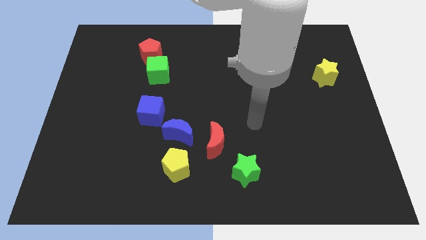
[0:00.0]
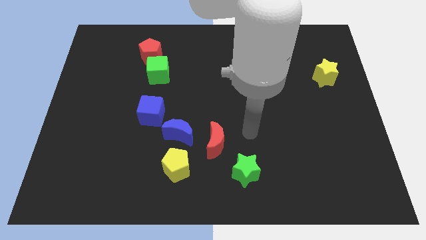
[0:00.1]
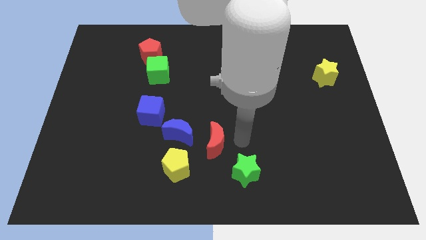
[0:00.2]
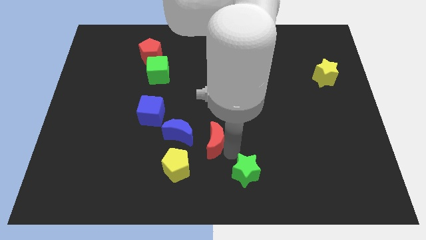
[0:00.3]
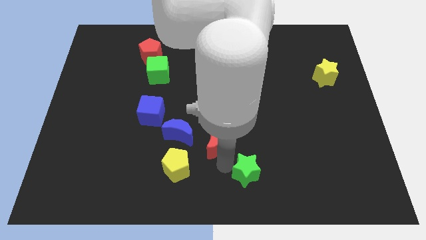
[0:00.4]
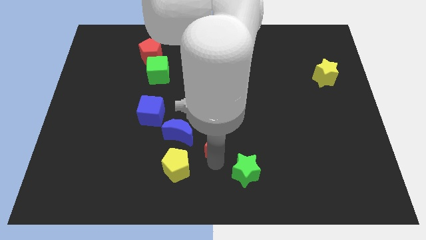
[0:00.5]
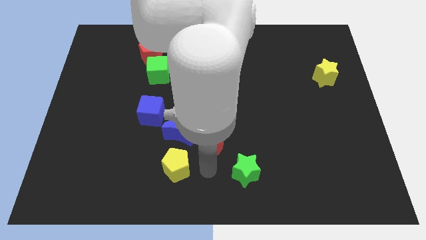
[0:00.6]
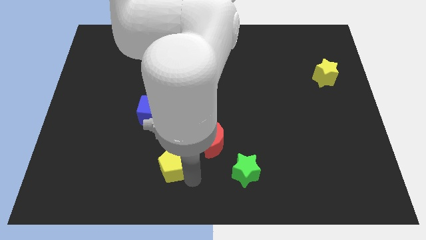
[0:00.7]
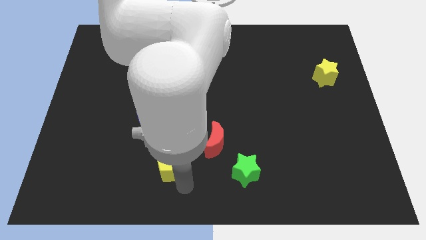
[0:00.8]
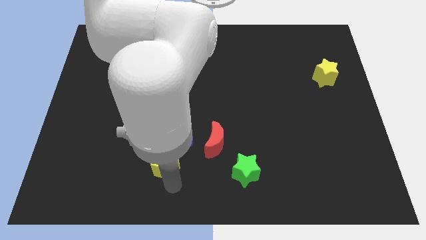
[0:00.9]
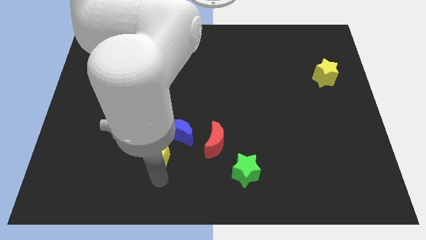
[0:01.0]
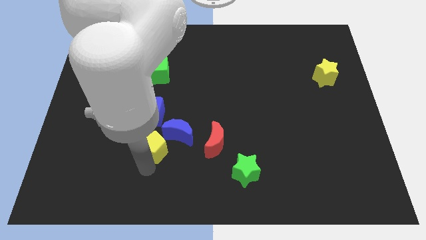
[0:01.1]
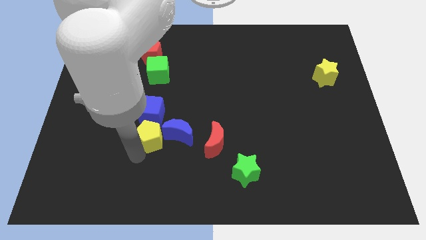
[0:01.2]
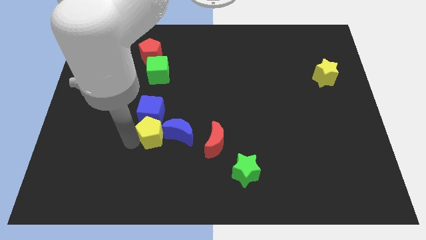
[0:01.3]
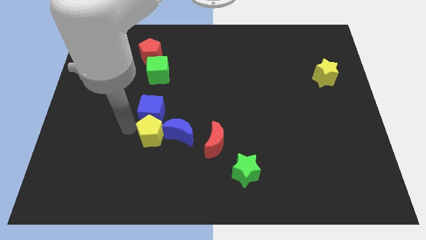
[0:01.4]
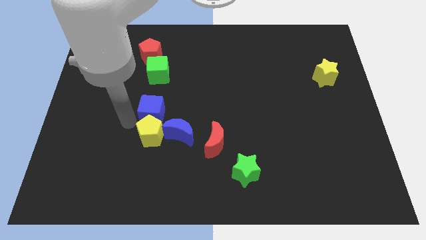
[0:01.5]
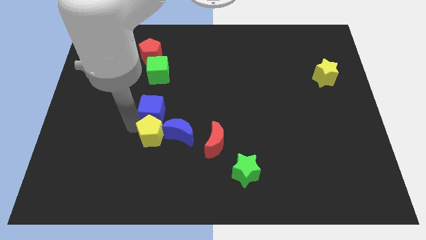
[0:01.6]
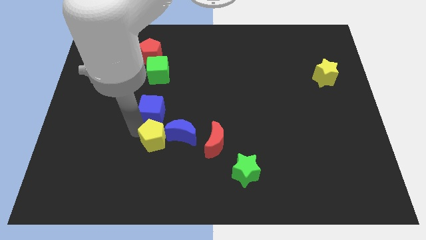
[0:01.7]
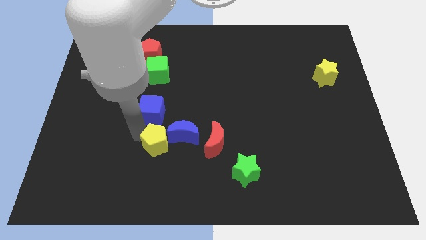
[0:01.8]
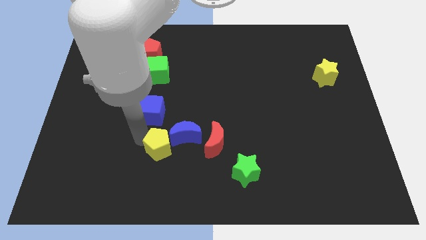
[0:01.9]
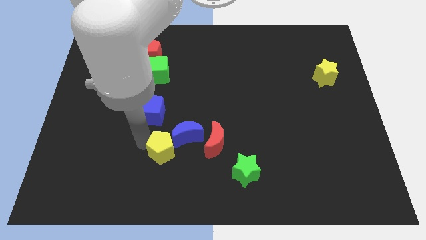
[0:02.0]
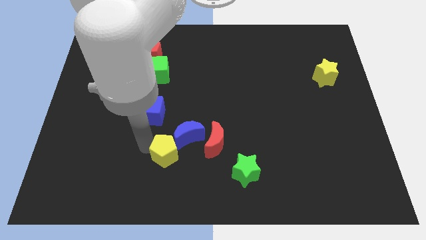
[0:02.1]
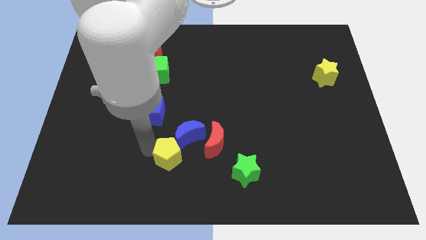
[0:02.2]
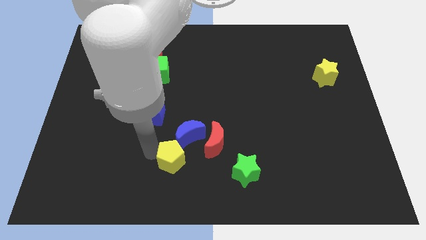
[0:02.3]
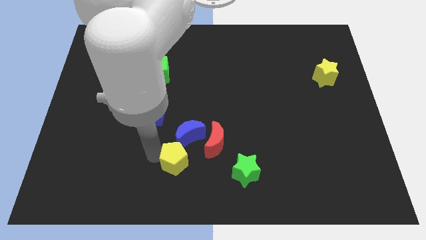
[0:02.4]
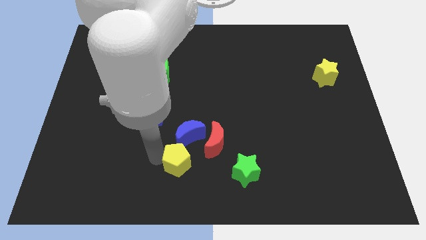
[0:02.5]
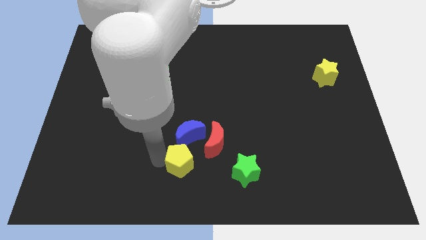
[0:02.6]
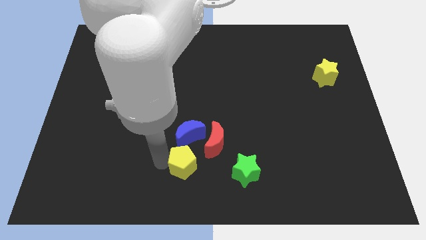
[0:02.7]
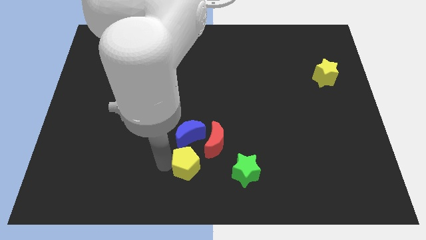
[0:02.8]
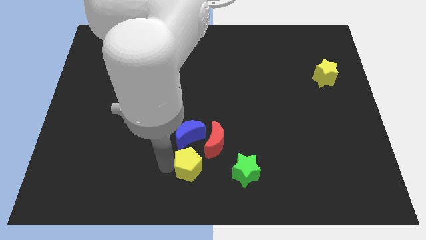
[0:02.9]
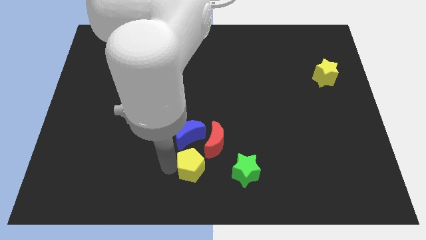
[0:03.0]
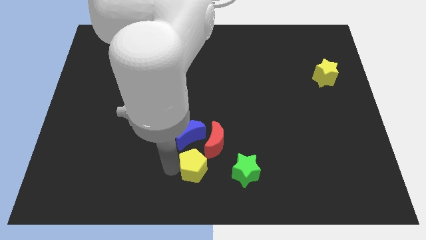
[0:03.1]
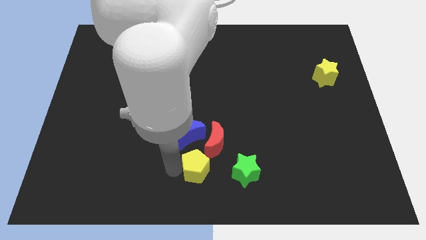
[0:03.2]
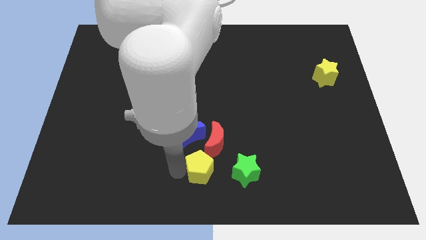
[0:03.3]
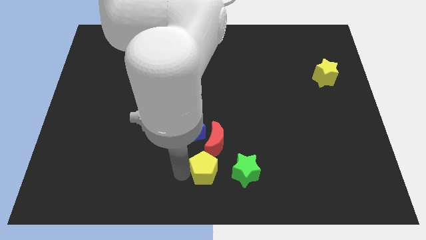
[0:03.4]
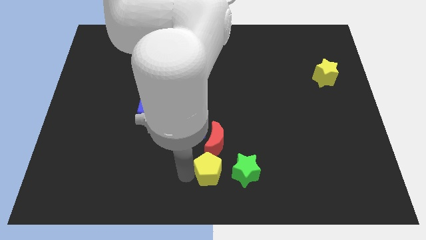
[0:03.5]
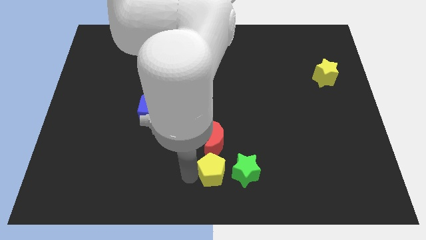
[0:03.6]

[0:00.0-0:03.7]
move the yellow pentagon a little bit right

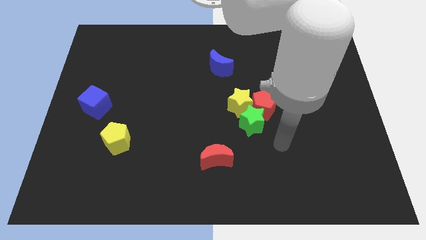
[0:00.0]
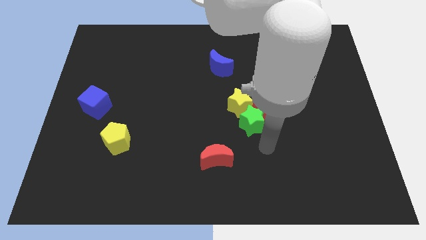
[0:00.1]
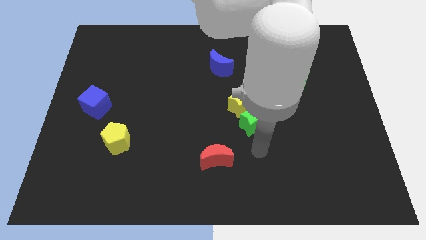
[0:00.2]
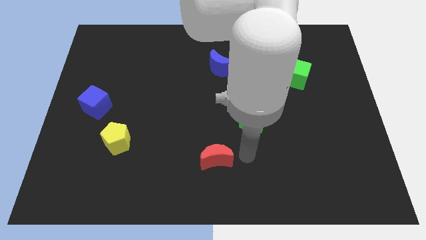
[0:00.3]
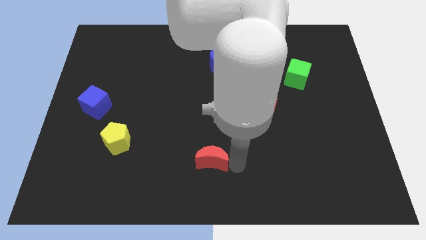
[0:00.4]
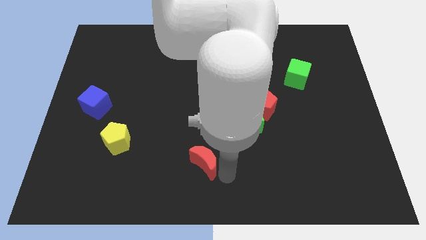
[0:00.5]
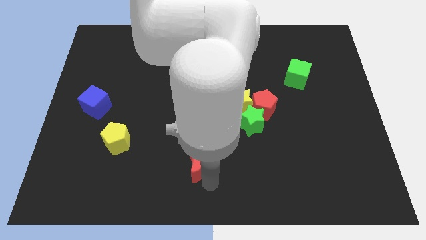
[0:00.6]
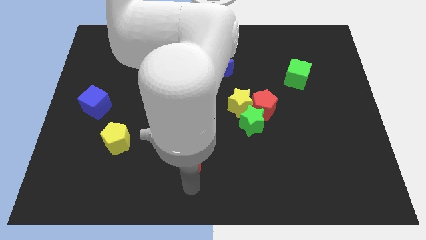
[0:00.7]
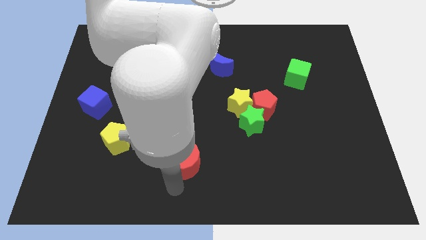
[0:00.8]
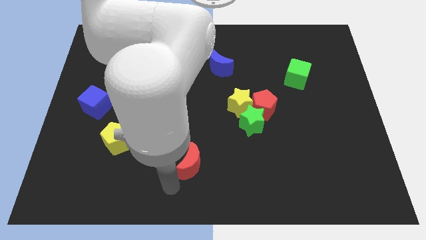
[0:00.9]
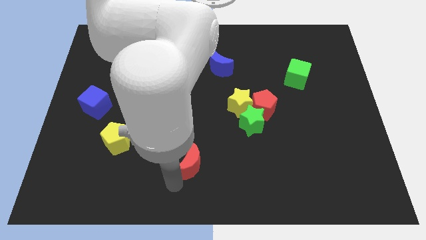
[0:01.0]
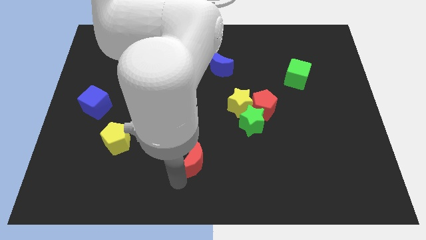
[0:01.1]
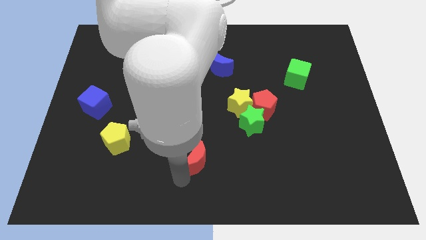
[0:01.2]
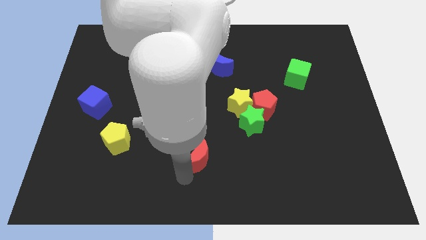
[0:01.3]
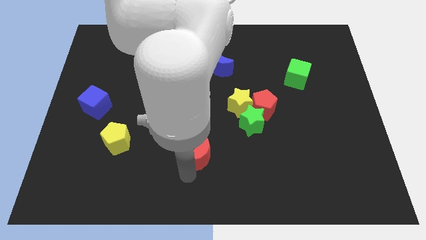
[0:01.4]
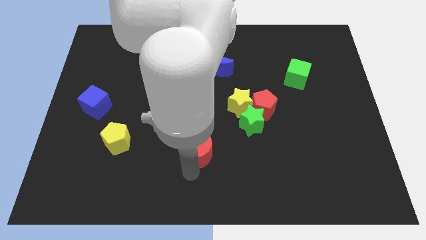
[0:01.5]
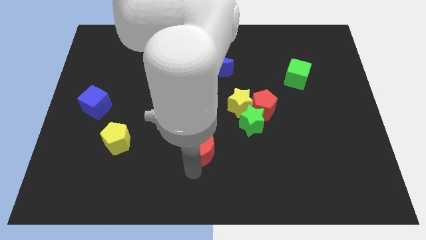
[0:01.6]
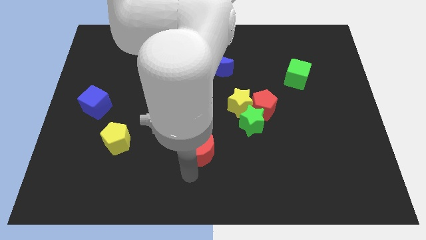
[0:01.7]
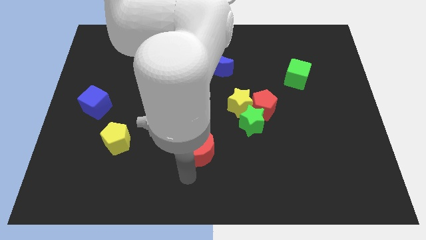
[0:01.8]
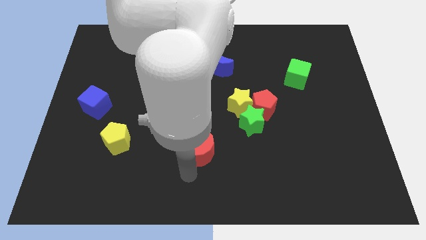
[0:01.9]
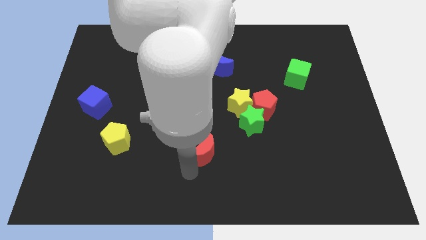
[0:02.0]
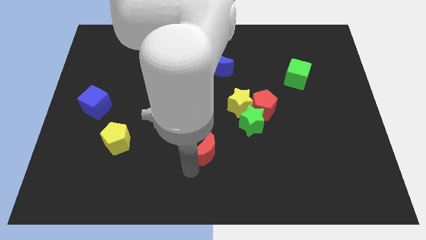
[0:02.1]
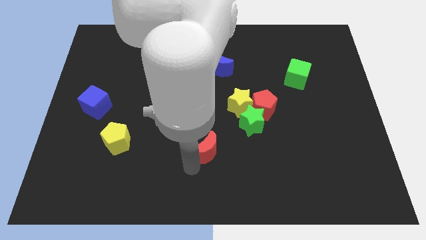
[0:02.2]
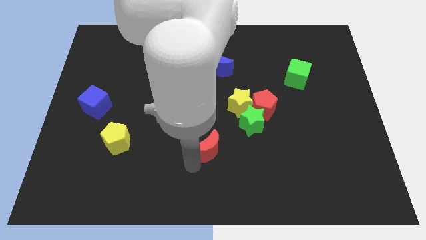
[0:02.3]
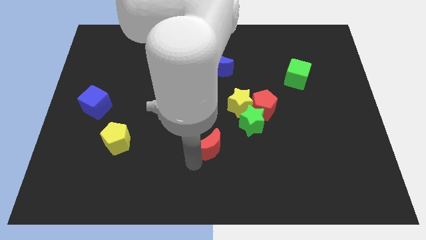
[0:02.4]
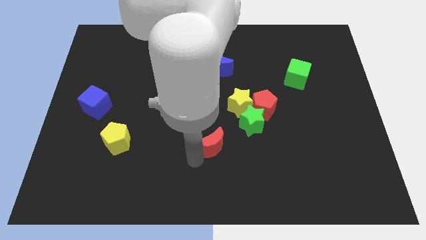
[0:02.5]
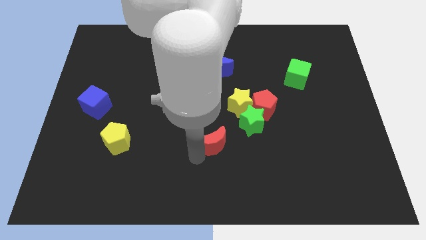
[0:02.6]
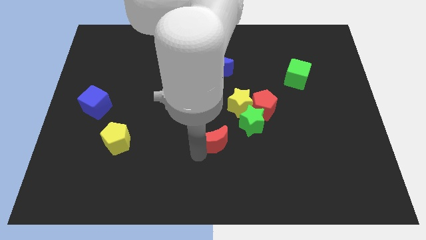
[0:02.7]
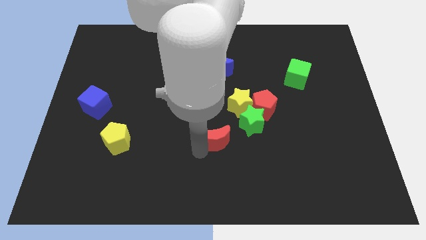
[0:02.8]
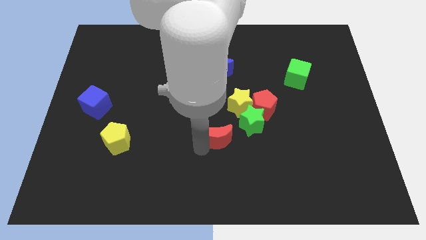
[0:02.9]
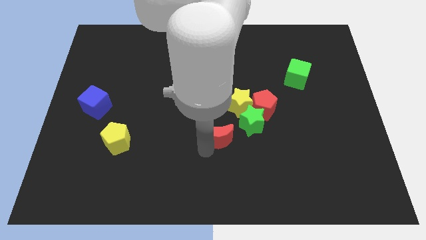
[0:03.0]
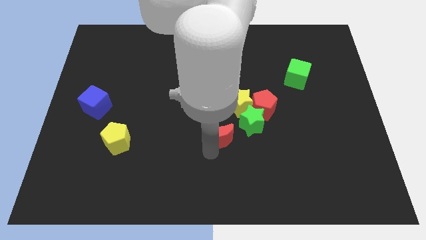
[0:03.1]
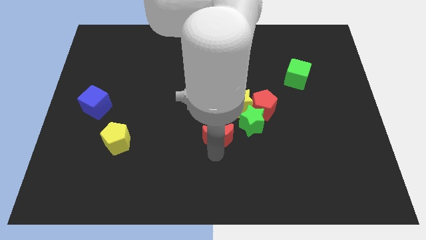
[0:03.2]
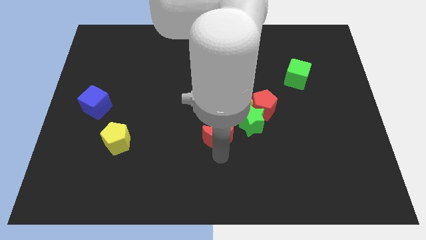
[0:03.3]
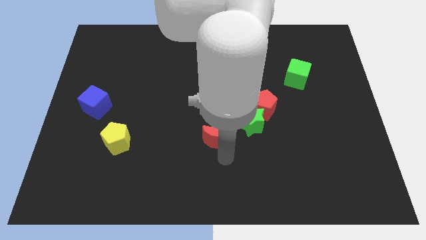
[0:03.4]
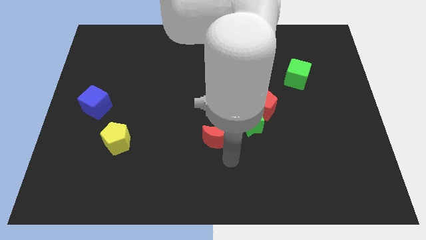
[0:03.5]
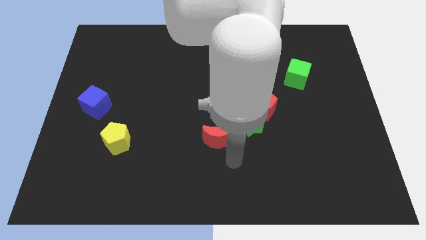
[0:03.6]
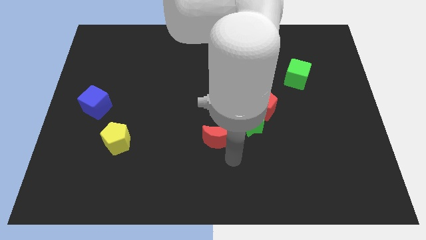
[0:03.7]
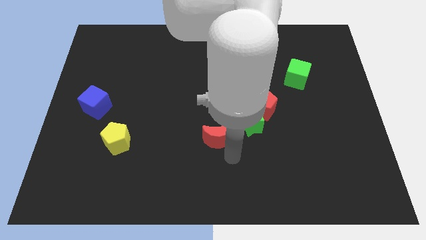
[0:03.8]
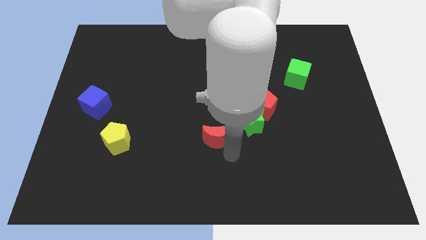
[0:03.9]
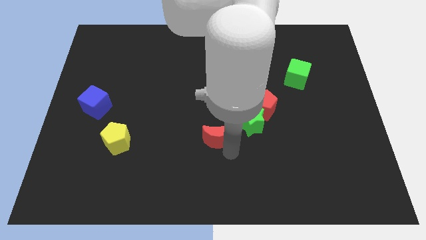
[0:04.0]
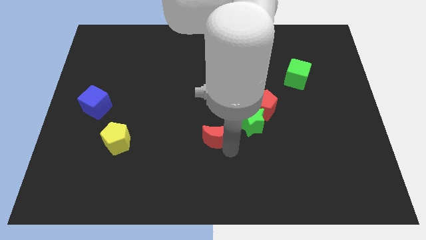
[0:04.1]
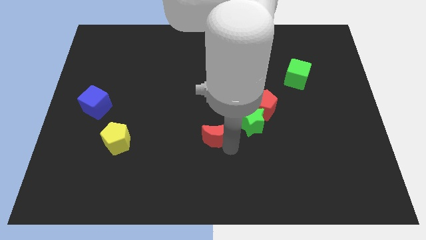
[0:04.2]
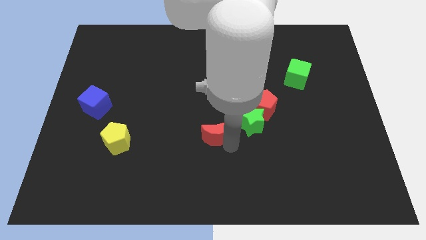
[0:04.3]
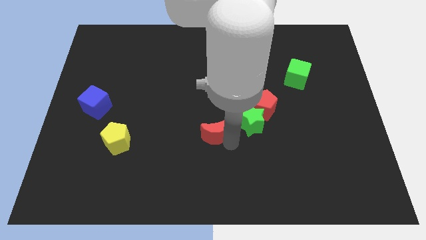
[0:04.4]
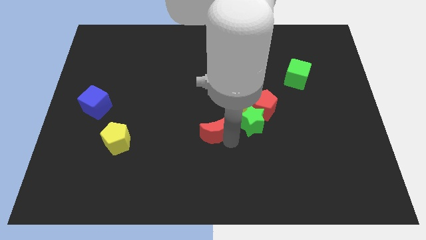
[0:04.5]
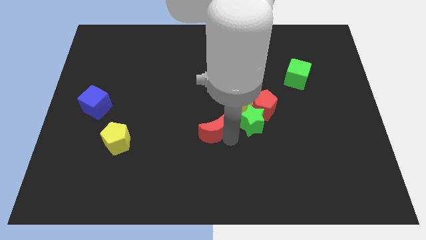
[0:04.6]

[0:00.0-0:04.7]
slide the red moon a little bit up
